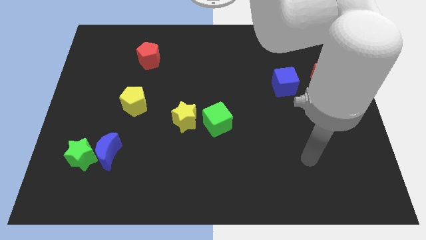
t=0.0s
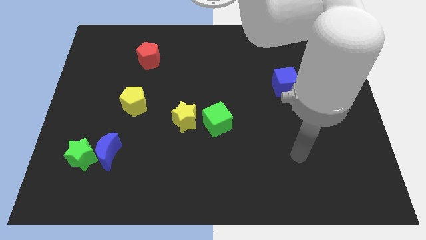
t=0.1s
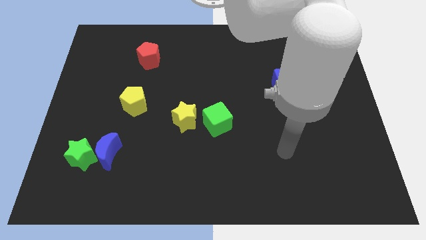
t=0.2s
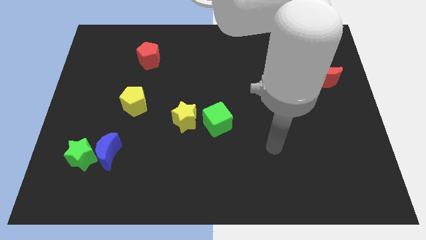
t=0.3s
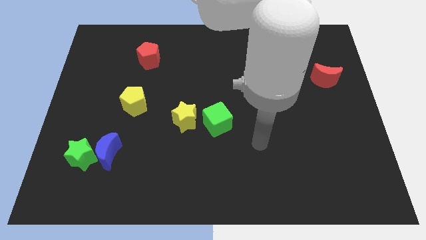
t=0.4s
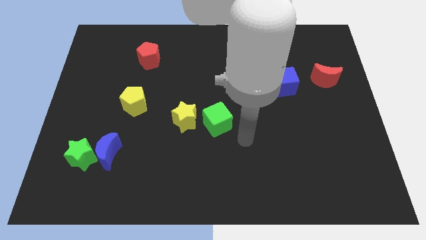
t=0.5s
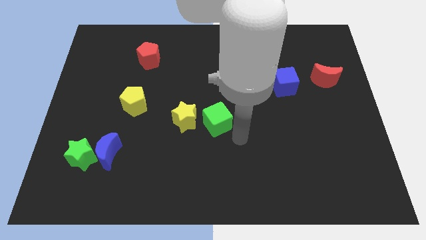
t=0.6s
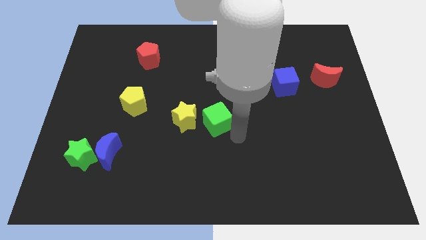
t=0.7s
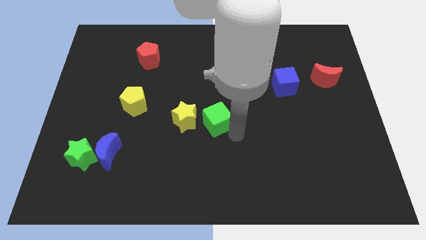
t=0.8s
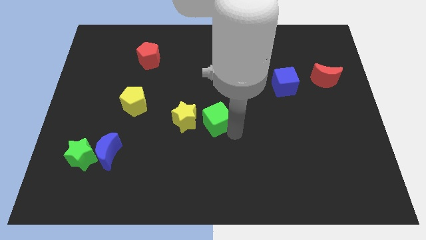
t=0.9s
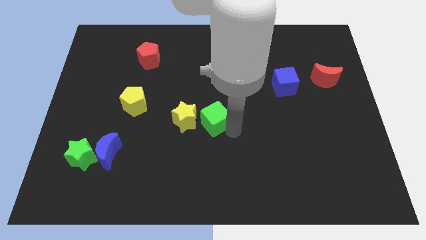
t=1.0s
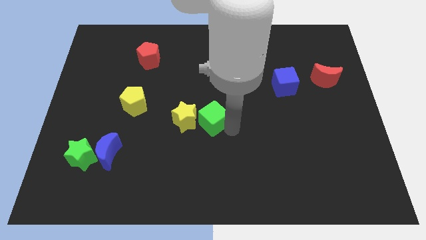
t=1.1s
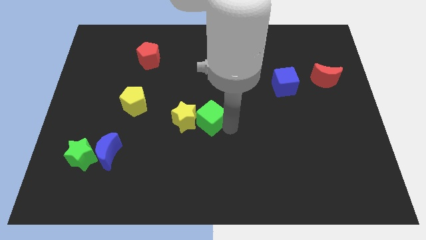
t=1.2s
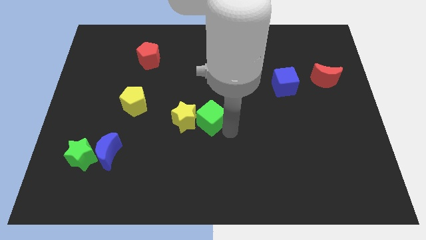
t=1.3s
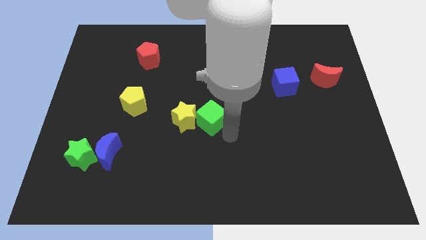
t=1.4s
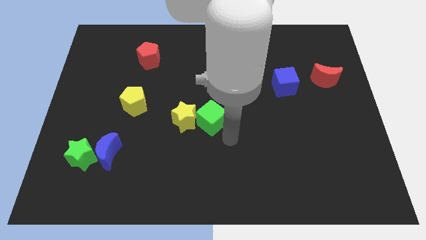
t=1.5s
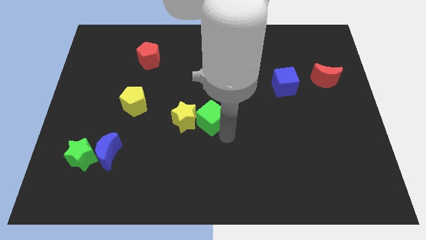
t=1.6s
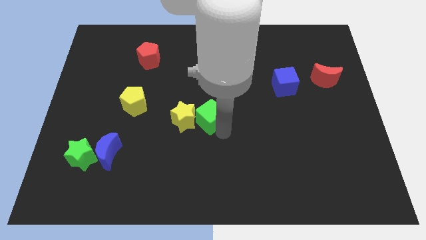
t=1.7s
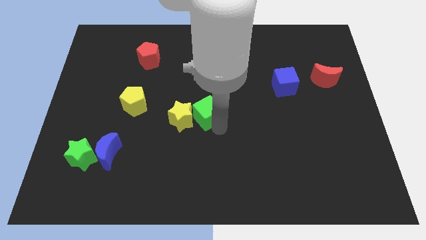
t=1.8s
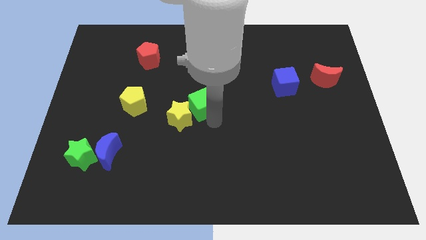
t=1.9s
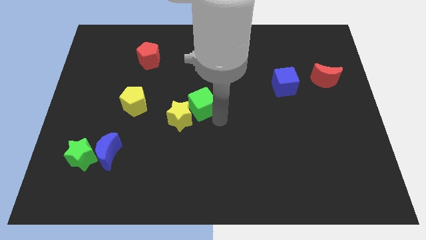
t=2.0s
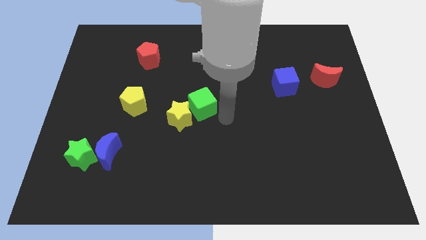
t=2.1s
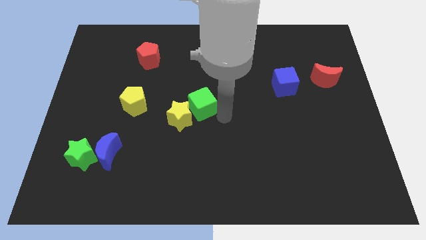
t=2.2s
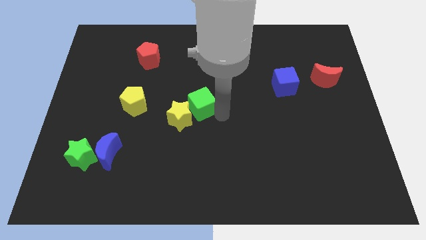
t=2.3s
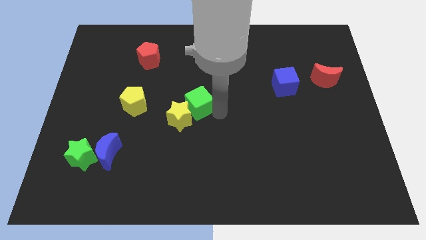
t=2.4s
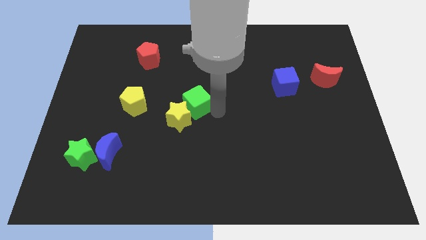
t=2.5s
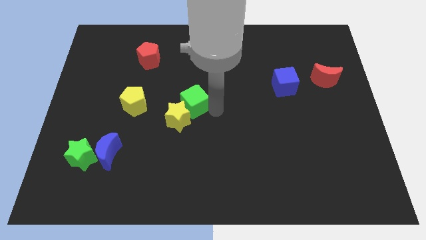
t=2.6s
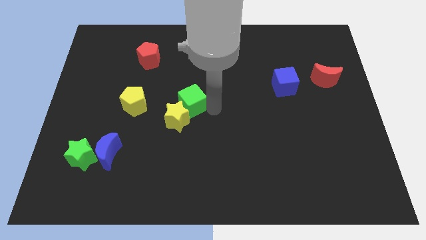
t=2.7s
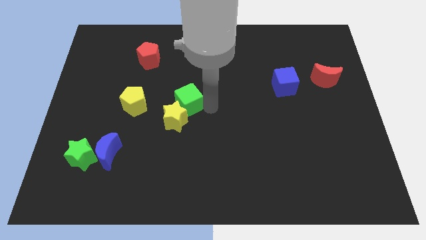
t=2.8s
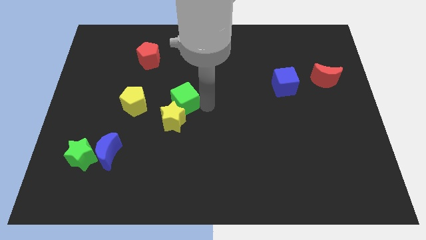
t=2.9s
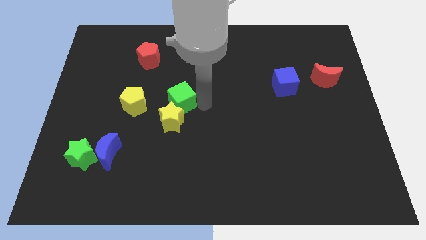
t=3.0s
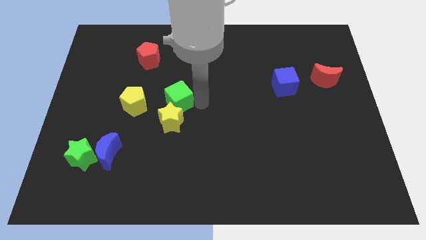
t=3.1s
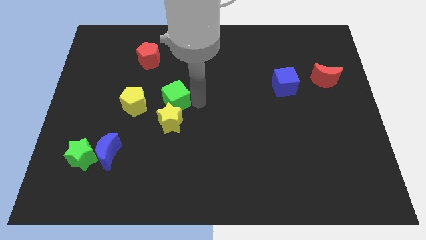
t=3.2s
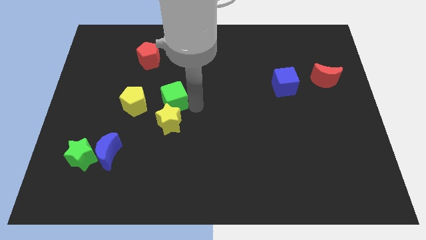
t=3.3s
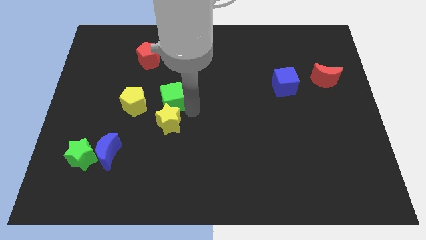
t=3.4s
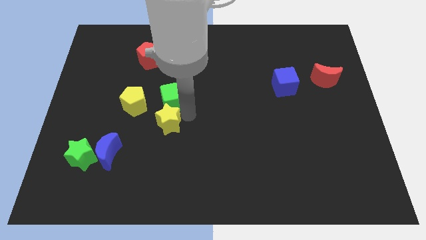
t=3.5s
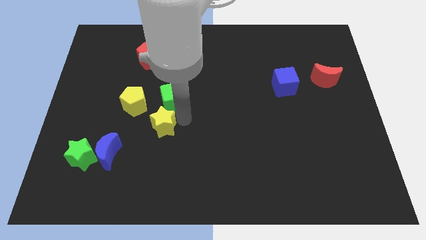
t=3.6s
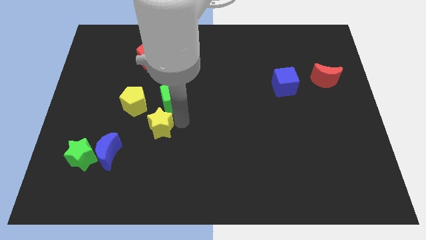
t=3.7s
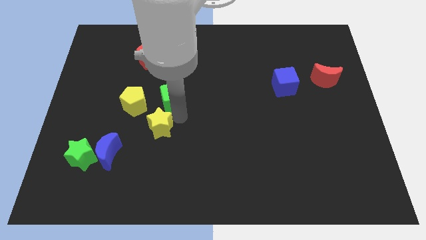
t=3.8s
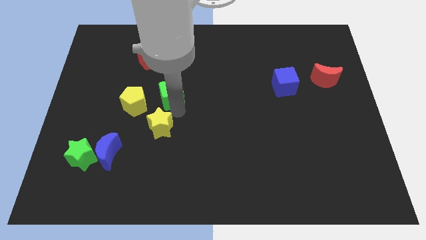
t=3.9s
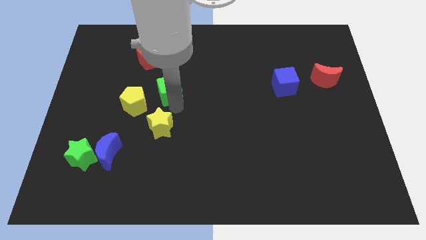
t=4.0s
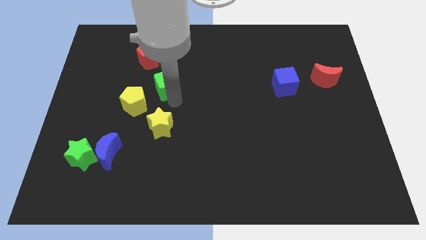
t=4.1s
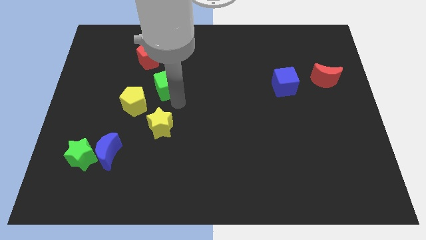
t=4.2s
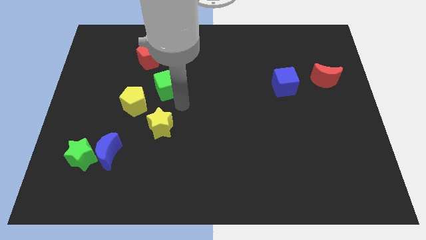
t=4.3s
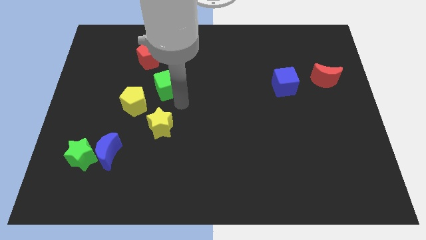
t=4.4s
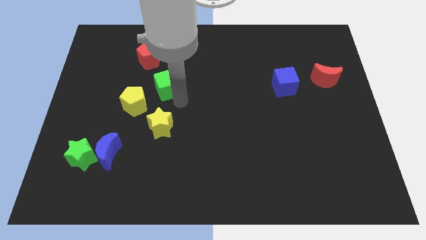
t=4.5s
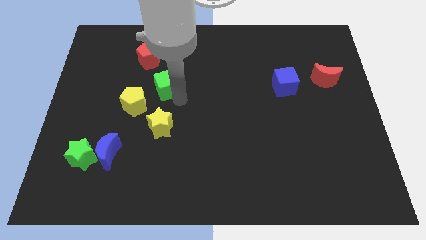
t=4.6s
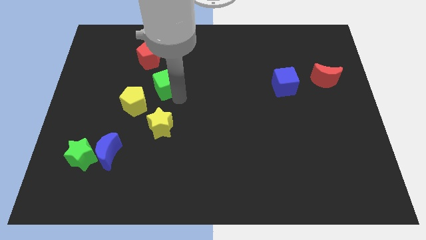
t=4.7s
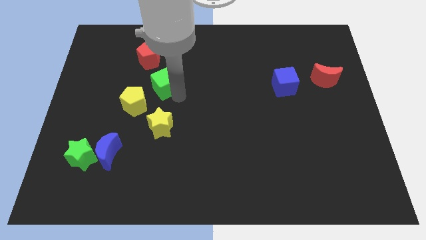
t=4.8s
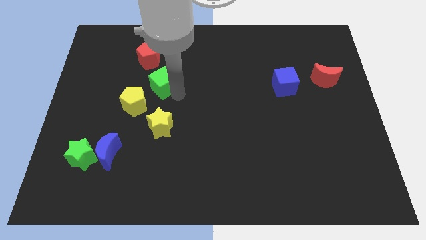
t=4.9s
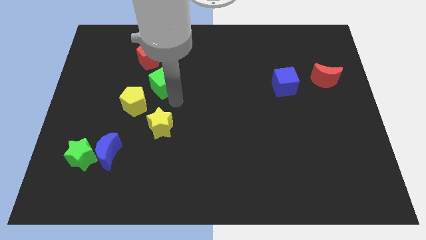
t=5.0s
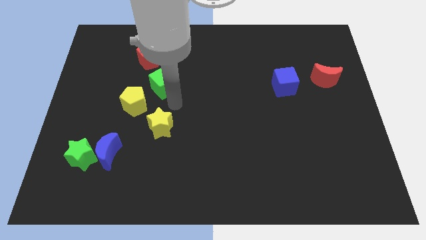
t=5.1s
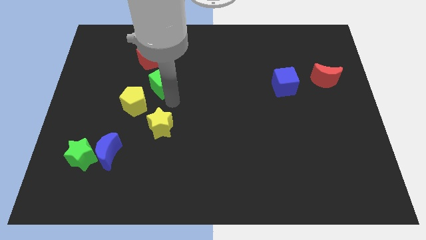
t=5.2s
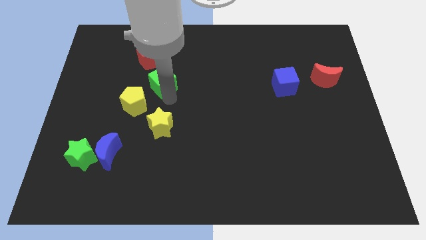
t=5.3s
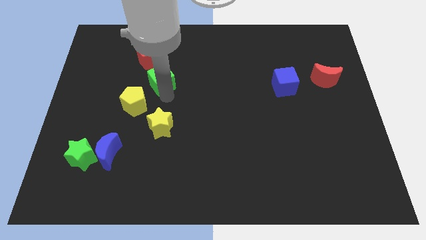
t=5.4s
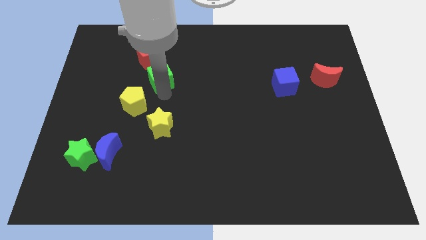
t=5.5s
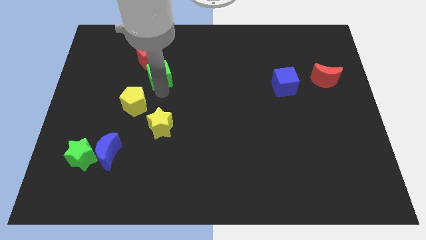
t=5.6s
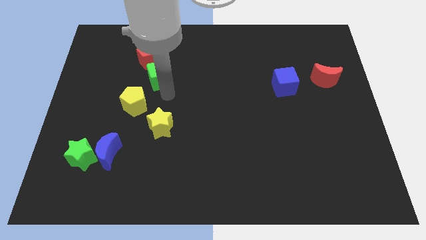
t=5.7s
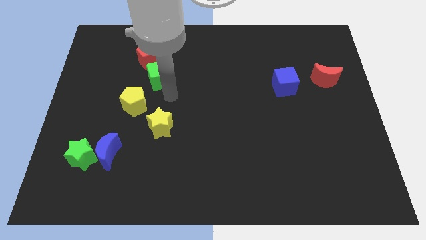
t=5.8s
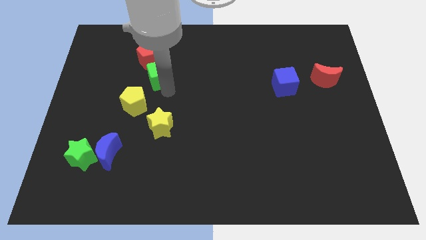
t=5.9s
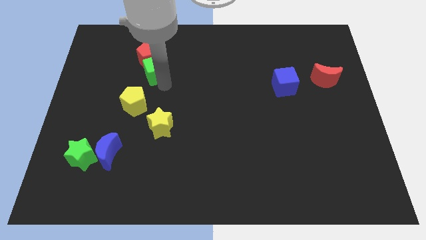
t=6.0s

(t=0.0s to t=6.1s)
slide the green cube close to the red pentagon
